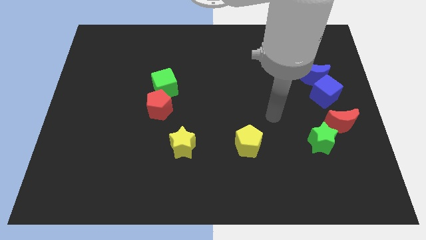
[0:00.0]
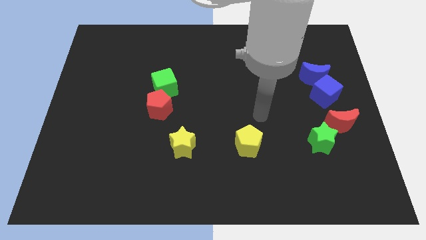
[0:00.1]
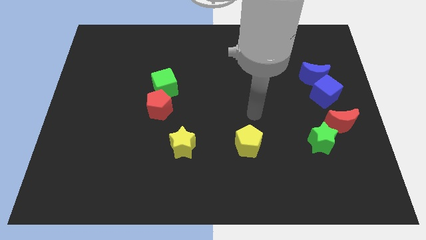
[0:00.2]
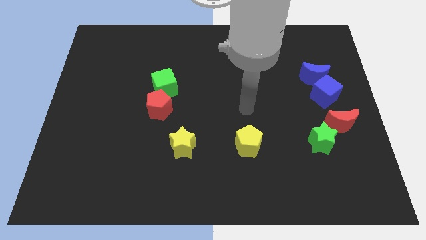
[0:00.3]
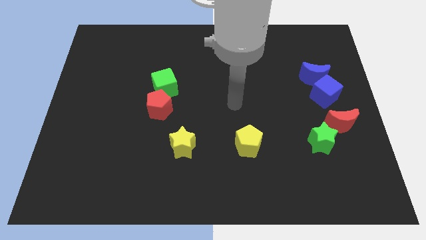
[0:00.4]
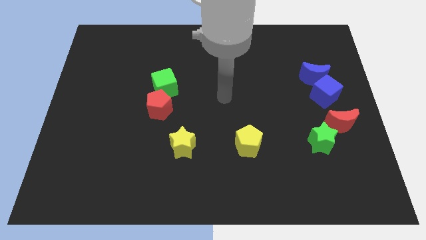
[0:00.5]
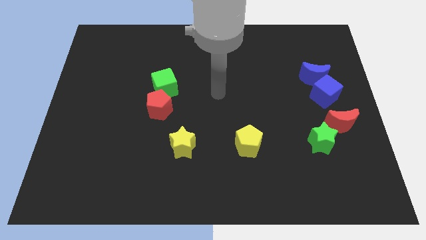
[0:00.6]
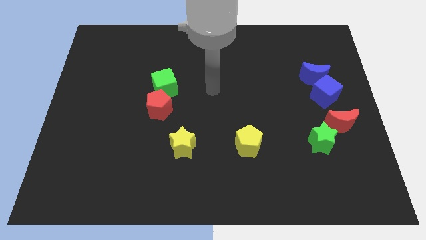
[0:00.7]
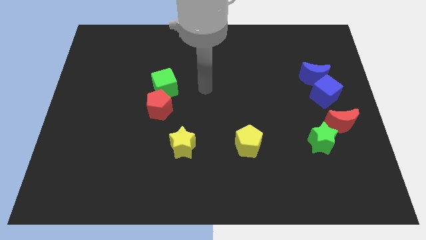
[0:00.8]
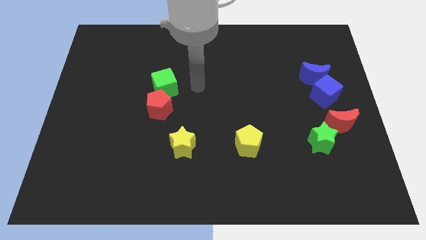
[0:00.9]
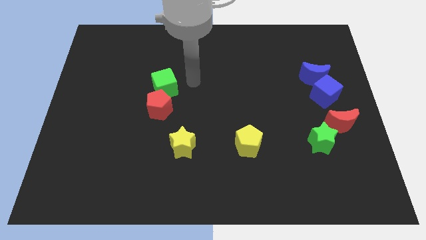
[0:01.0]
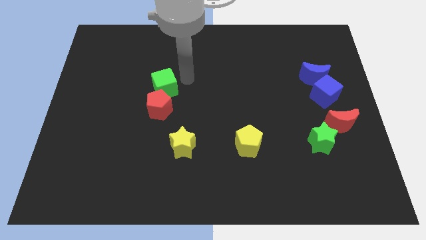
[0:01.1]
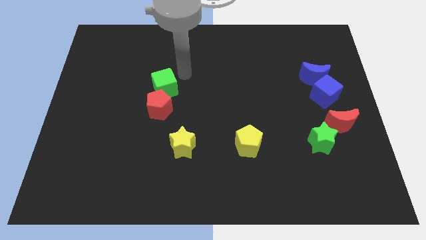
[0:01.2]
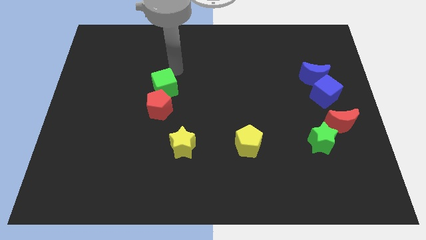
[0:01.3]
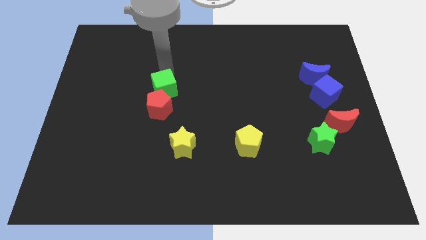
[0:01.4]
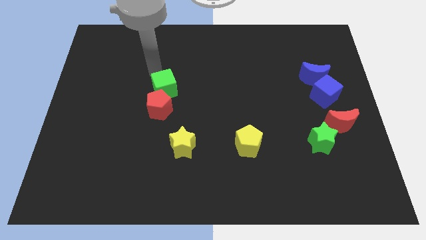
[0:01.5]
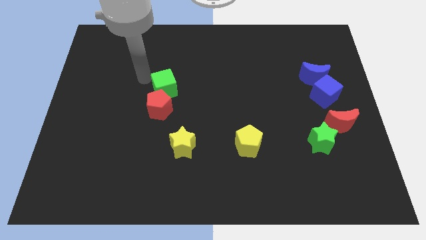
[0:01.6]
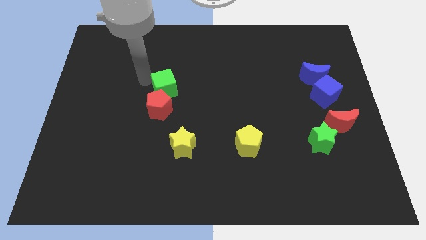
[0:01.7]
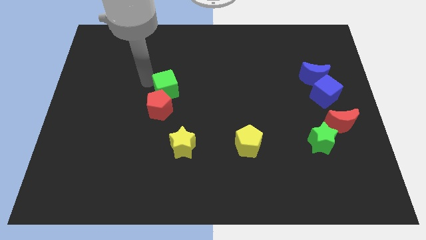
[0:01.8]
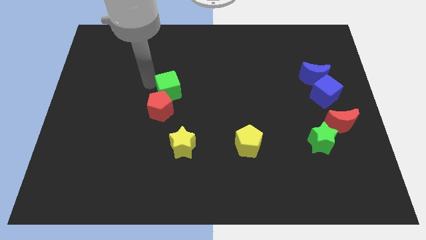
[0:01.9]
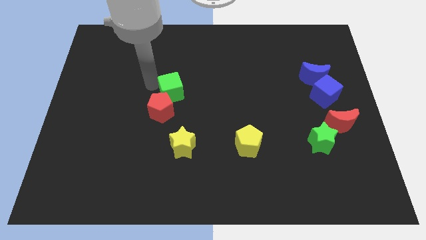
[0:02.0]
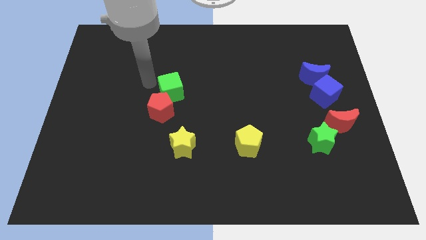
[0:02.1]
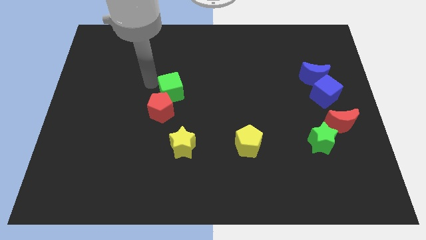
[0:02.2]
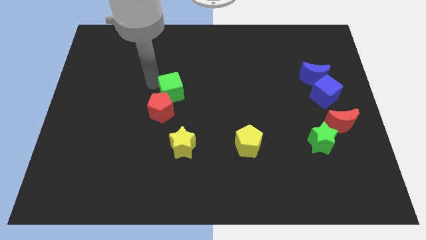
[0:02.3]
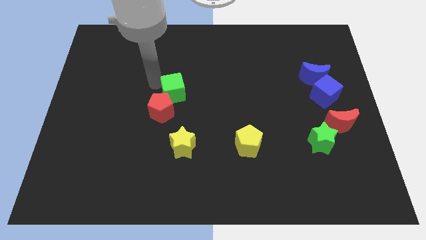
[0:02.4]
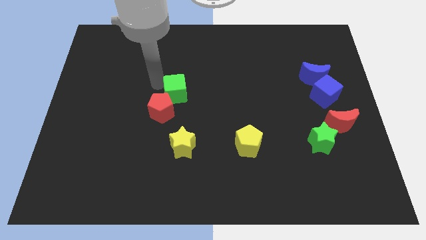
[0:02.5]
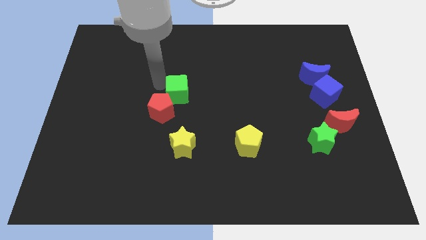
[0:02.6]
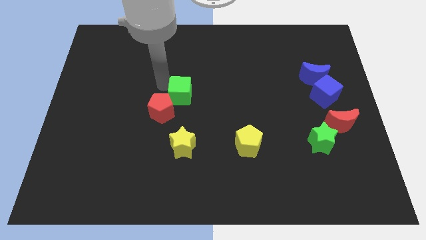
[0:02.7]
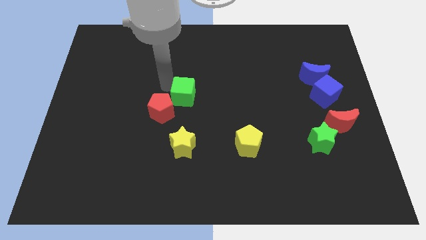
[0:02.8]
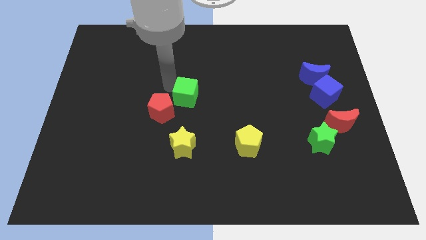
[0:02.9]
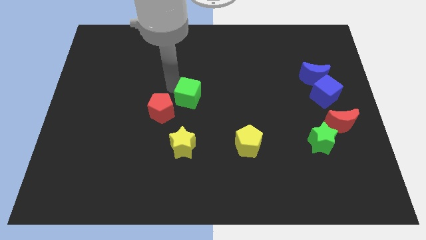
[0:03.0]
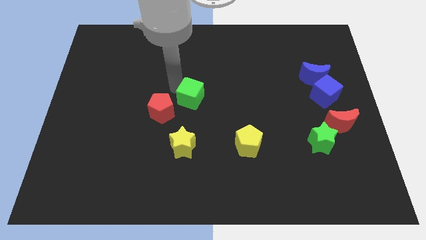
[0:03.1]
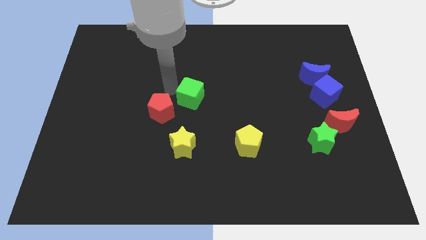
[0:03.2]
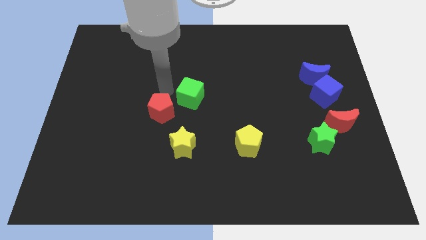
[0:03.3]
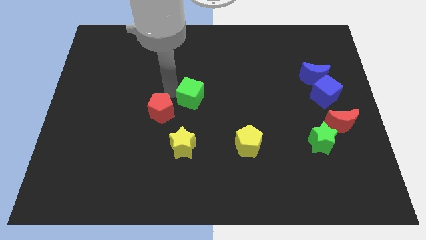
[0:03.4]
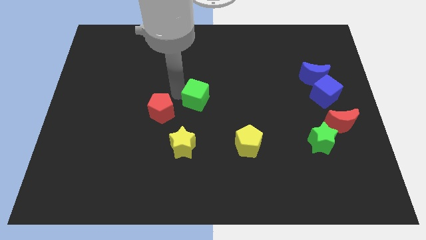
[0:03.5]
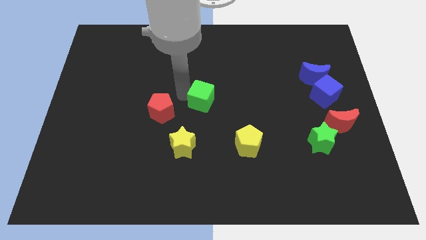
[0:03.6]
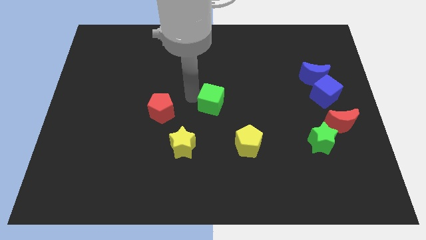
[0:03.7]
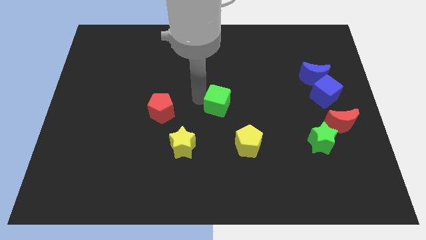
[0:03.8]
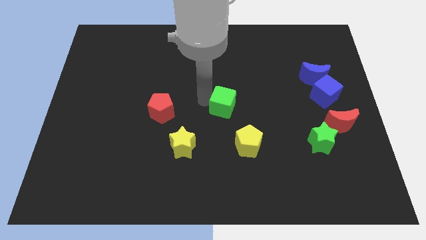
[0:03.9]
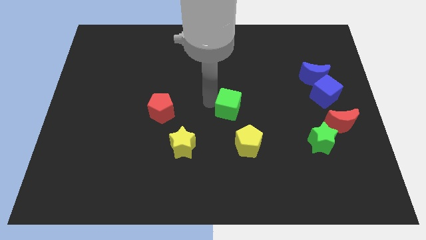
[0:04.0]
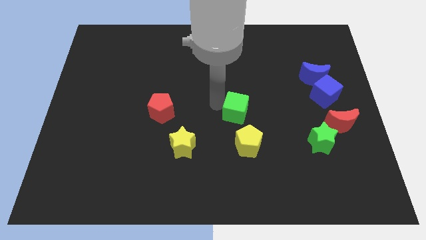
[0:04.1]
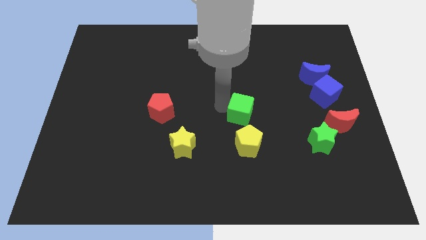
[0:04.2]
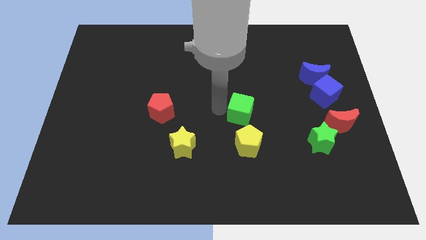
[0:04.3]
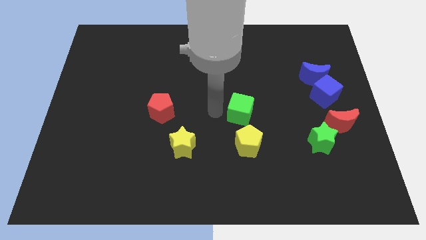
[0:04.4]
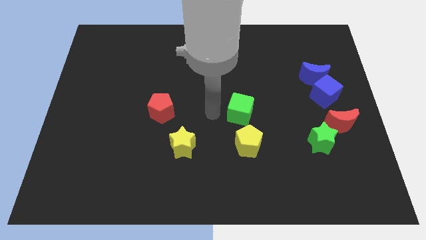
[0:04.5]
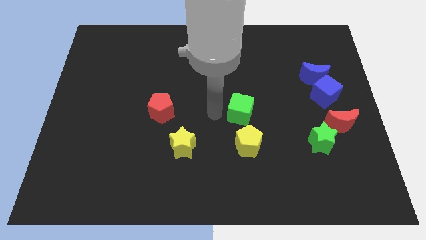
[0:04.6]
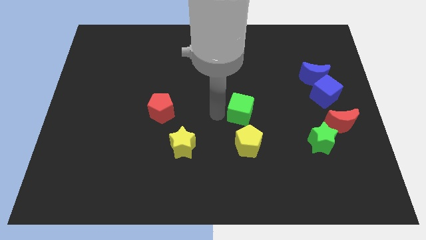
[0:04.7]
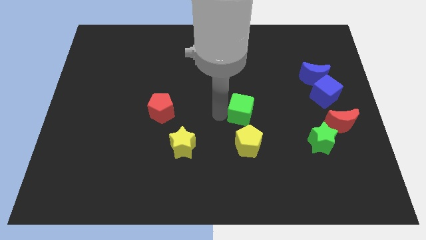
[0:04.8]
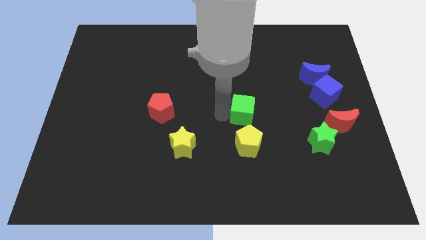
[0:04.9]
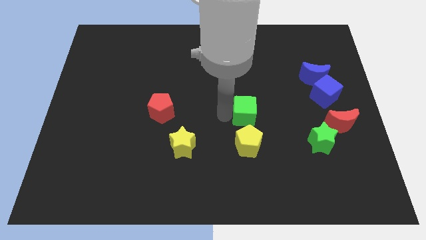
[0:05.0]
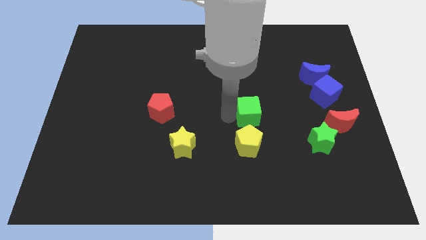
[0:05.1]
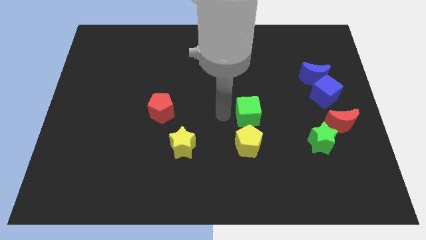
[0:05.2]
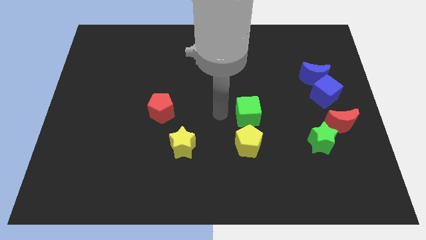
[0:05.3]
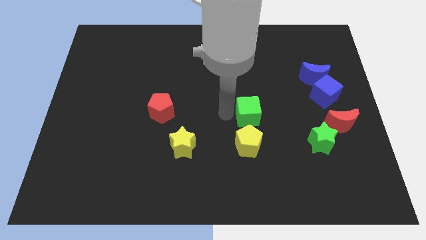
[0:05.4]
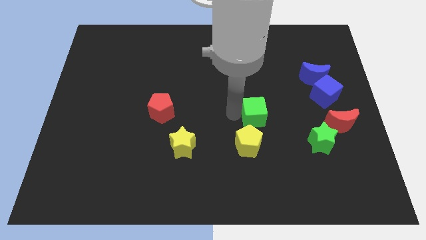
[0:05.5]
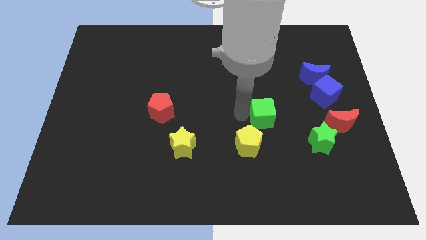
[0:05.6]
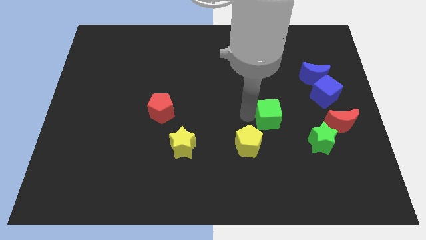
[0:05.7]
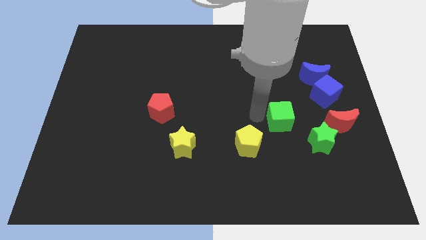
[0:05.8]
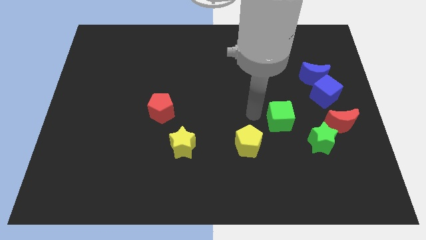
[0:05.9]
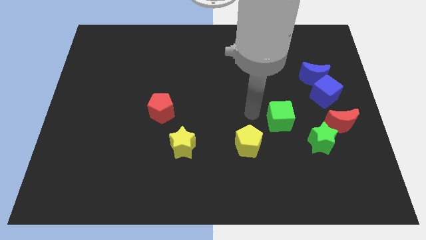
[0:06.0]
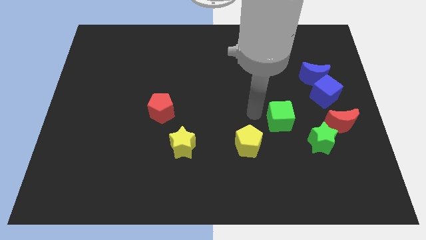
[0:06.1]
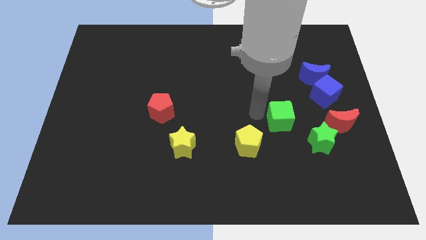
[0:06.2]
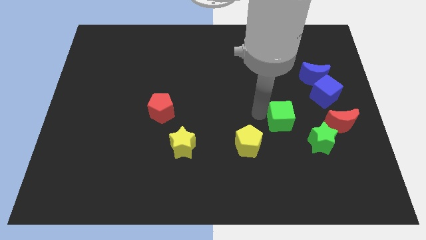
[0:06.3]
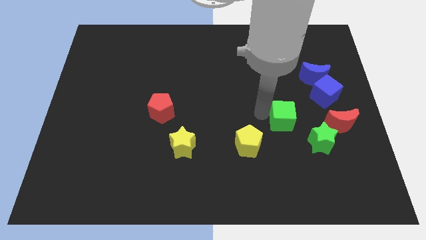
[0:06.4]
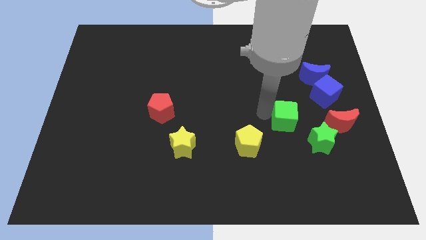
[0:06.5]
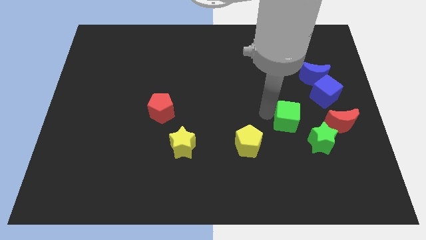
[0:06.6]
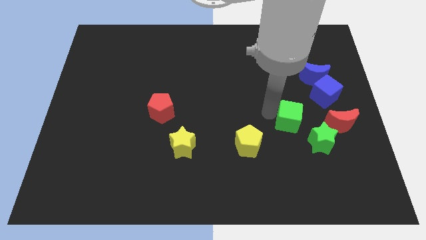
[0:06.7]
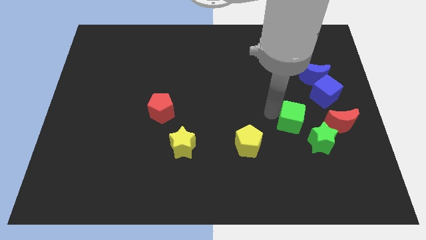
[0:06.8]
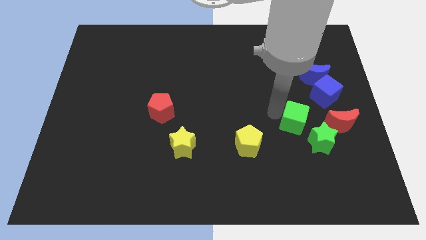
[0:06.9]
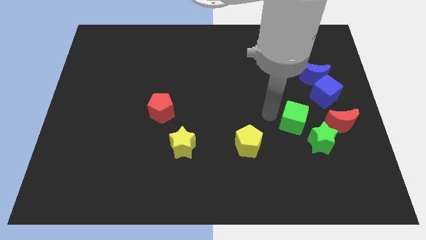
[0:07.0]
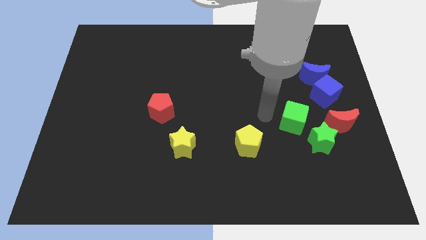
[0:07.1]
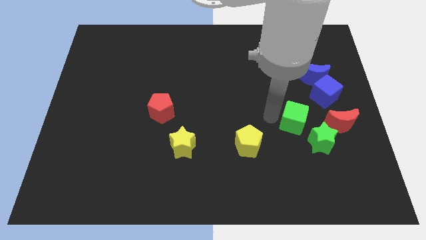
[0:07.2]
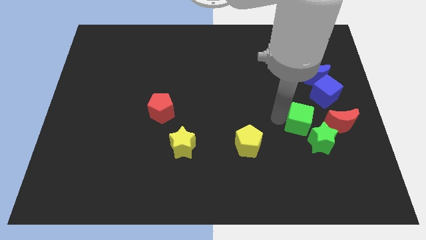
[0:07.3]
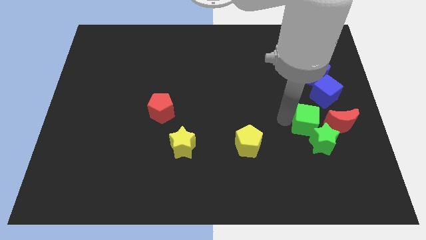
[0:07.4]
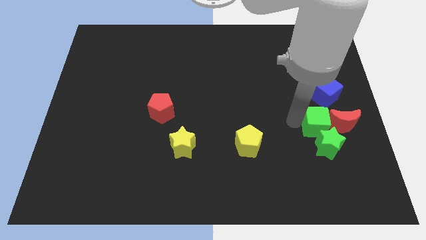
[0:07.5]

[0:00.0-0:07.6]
put the green cube to the red moon
